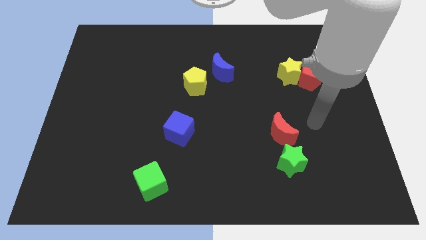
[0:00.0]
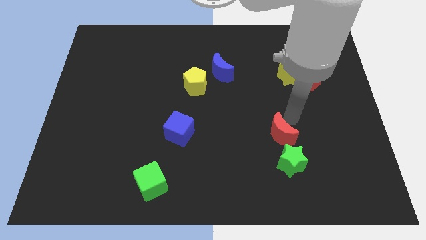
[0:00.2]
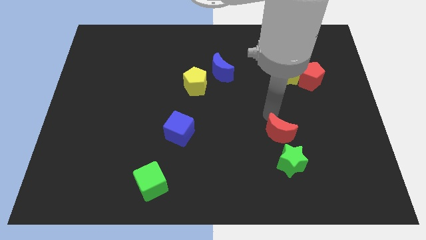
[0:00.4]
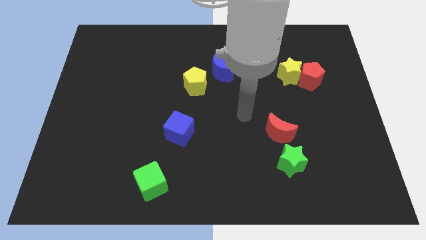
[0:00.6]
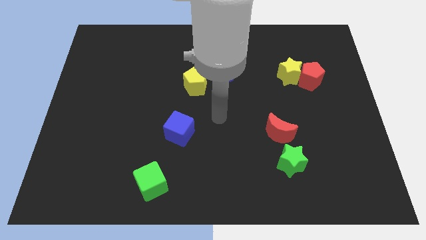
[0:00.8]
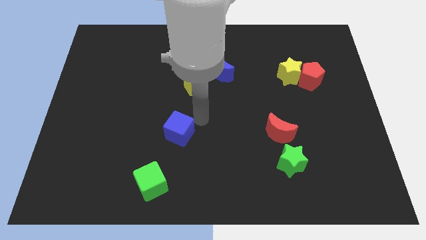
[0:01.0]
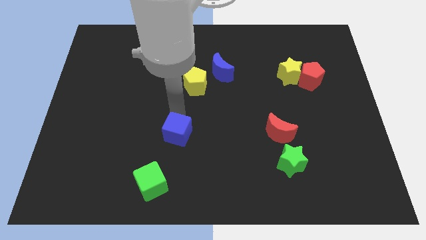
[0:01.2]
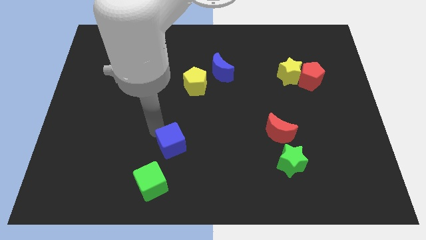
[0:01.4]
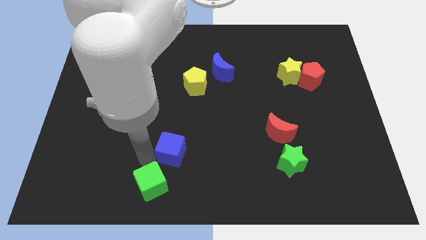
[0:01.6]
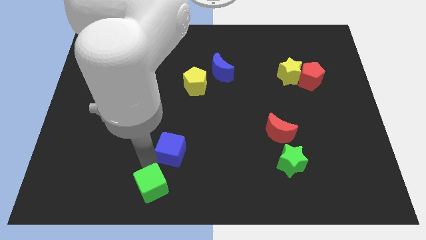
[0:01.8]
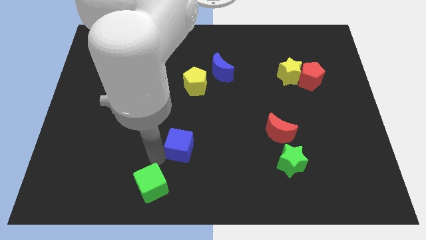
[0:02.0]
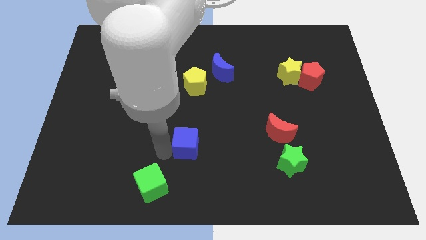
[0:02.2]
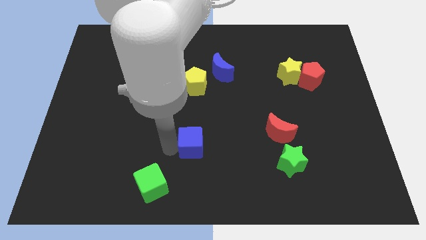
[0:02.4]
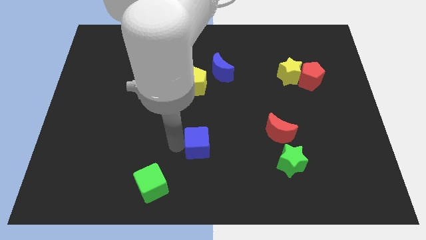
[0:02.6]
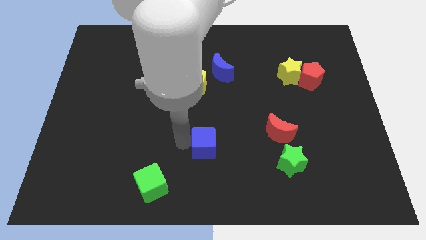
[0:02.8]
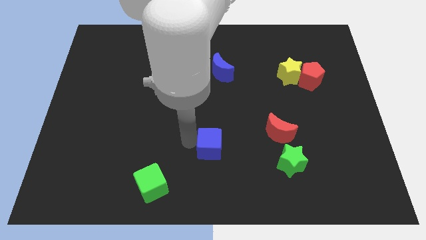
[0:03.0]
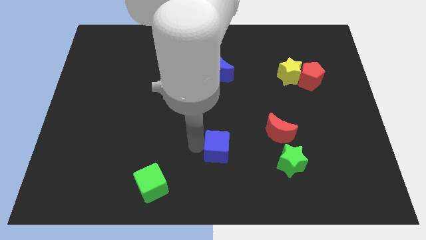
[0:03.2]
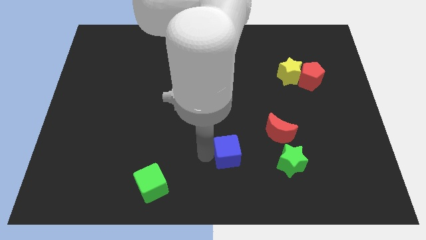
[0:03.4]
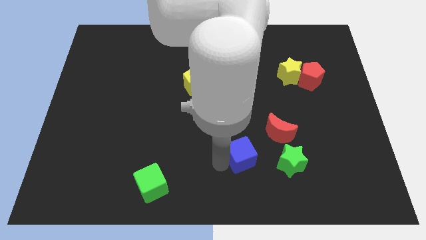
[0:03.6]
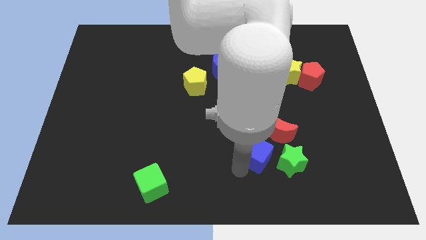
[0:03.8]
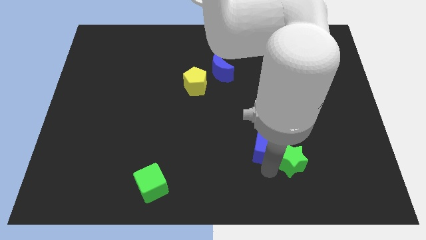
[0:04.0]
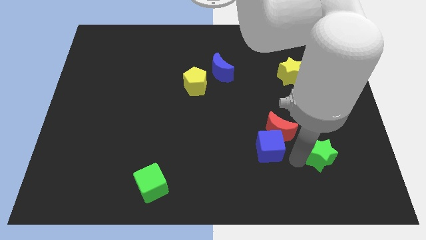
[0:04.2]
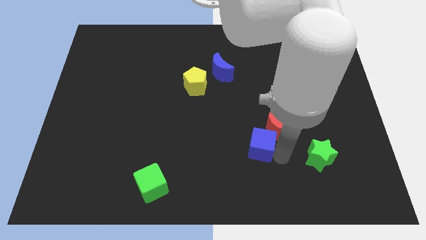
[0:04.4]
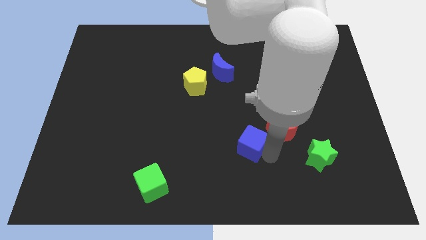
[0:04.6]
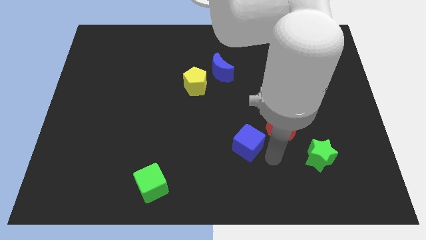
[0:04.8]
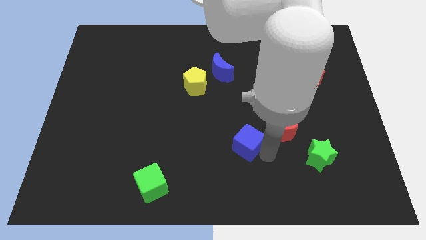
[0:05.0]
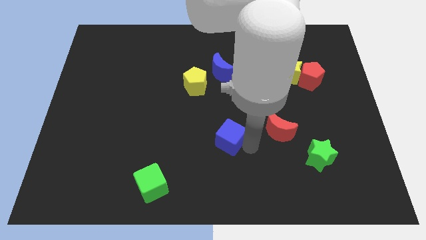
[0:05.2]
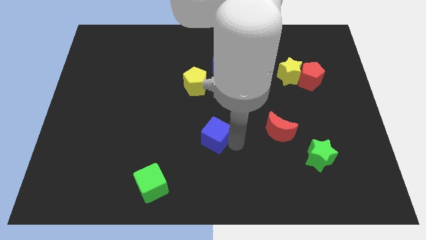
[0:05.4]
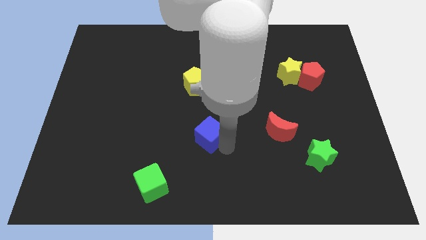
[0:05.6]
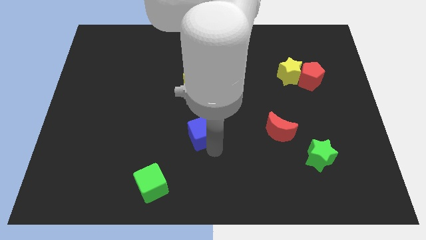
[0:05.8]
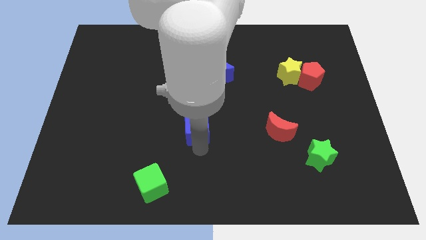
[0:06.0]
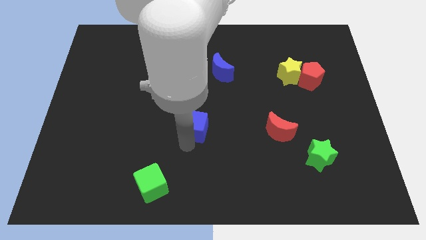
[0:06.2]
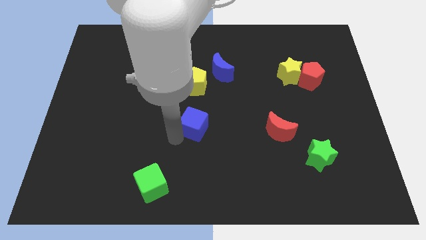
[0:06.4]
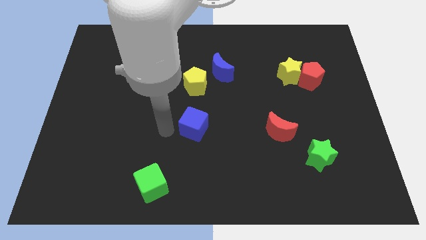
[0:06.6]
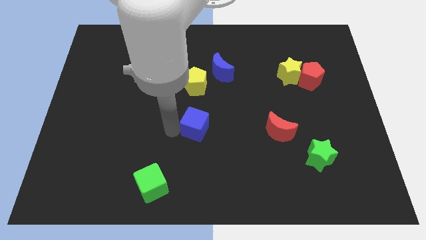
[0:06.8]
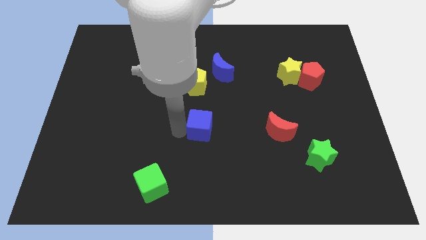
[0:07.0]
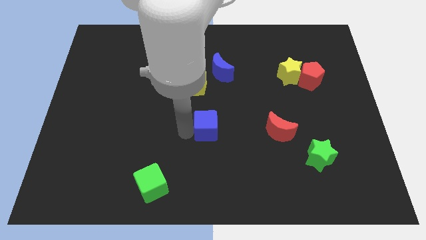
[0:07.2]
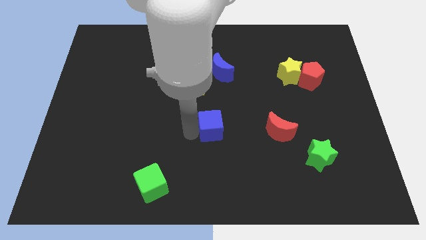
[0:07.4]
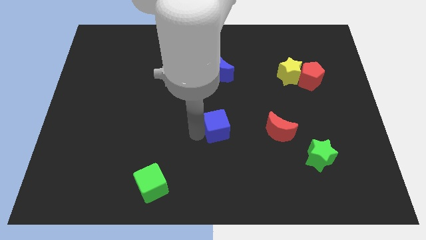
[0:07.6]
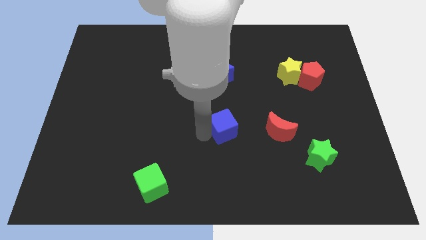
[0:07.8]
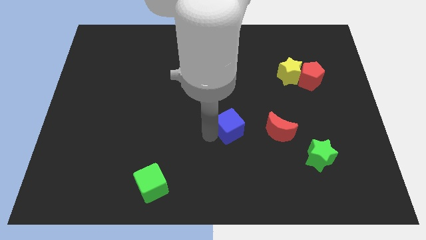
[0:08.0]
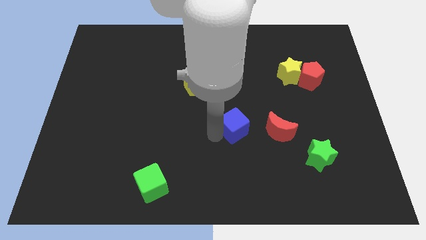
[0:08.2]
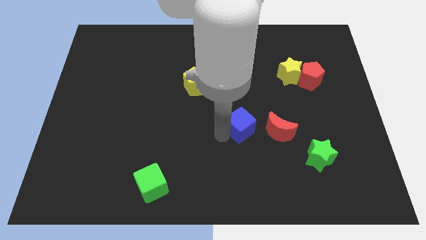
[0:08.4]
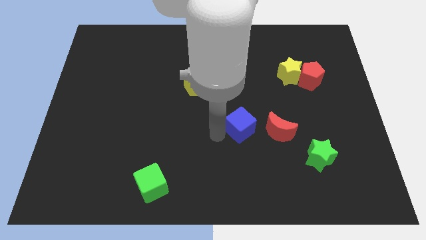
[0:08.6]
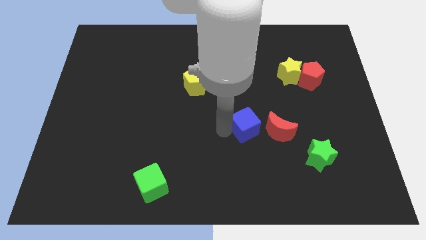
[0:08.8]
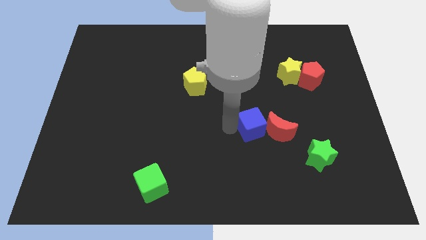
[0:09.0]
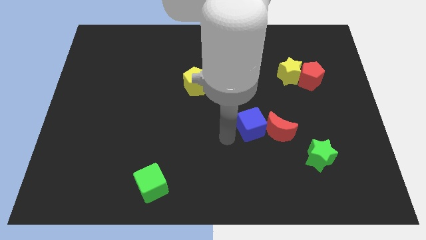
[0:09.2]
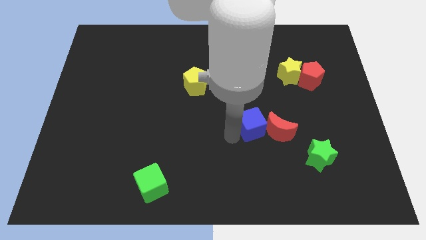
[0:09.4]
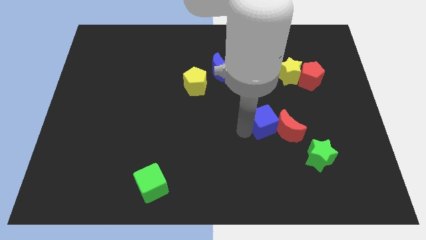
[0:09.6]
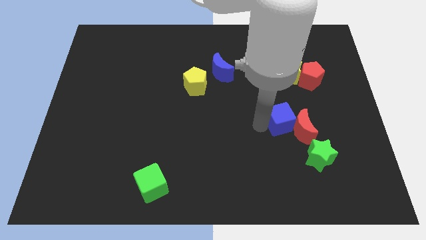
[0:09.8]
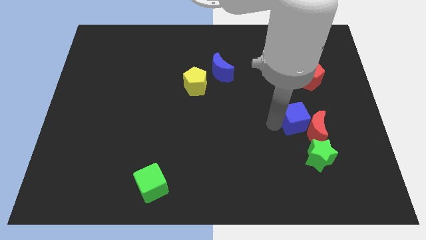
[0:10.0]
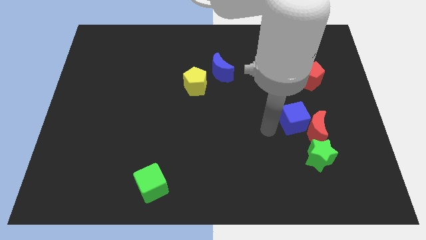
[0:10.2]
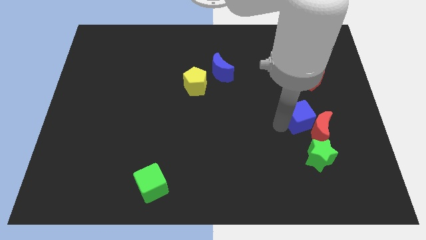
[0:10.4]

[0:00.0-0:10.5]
push the blue cube below the red pentagon

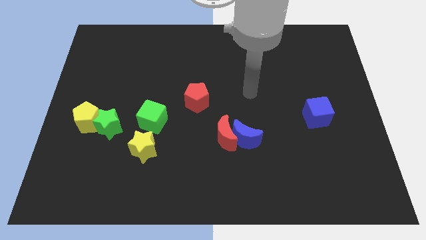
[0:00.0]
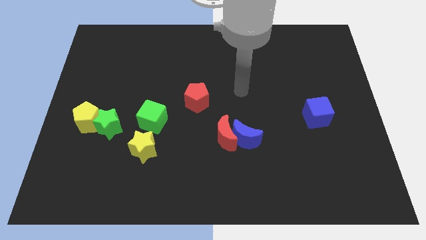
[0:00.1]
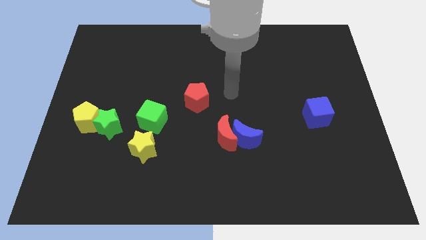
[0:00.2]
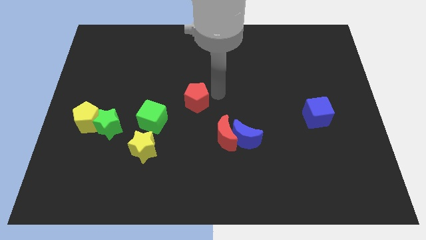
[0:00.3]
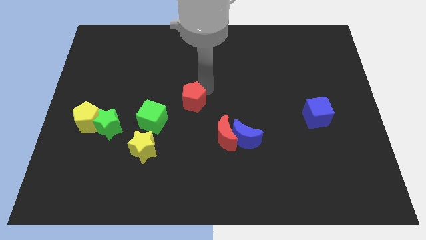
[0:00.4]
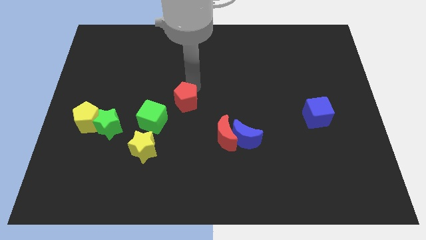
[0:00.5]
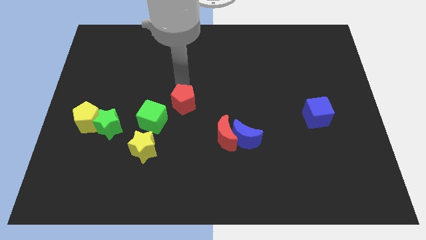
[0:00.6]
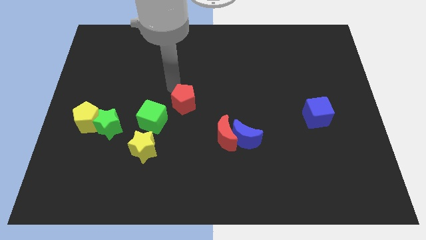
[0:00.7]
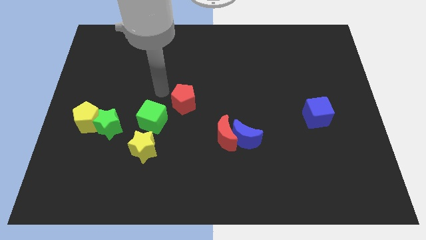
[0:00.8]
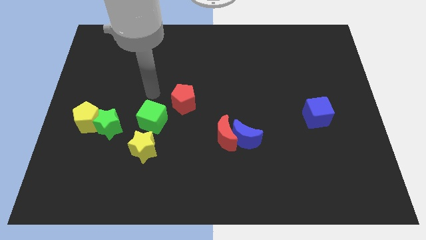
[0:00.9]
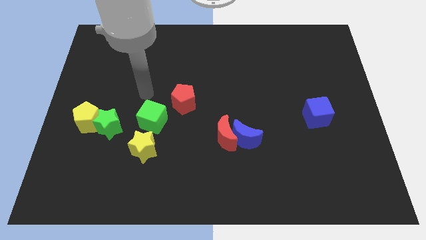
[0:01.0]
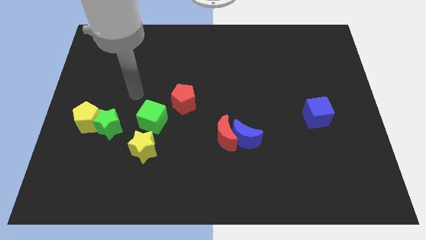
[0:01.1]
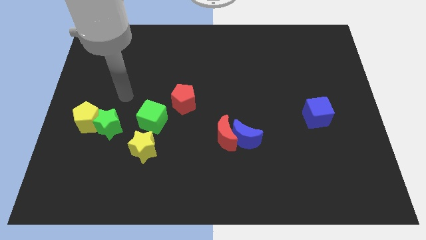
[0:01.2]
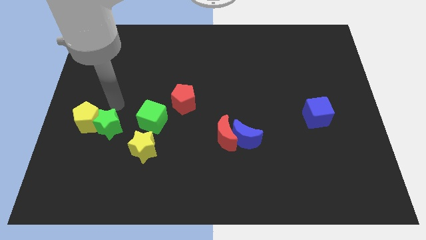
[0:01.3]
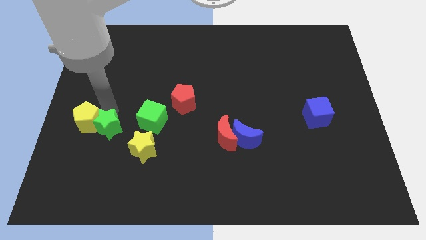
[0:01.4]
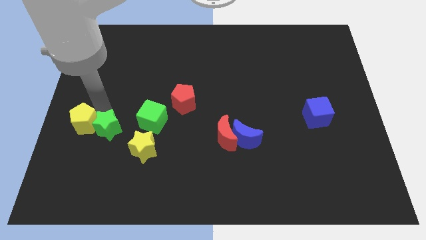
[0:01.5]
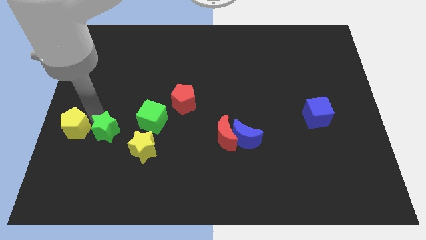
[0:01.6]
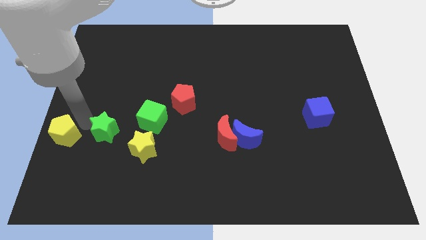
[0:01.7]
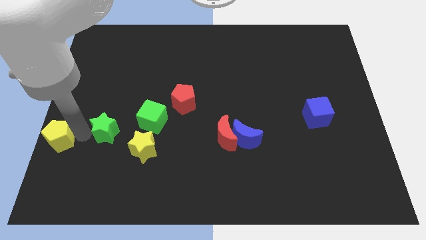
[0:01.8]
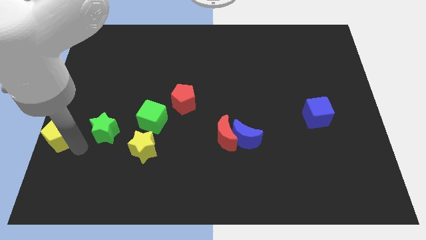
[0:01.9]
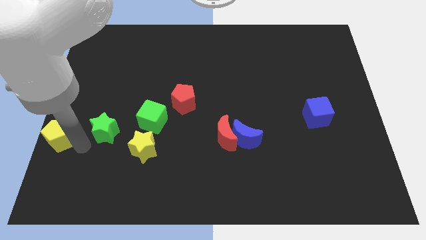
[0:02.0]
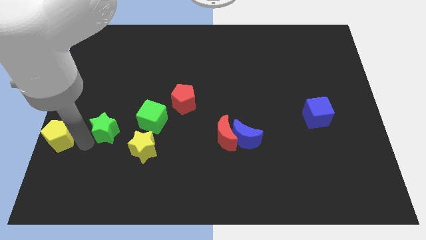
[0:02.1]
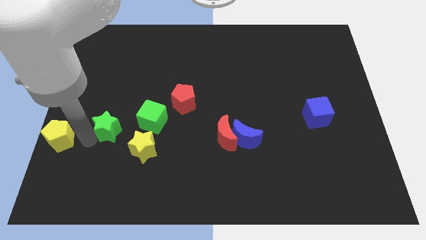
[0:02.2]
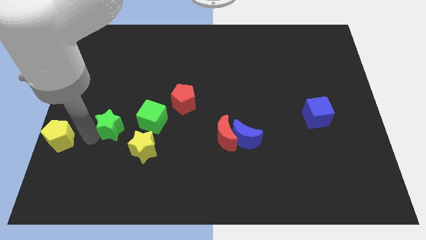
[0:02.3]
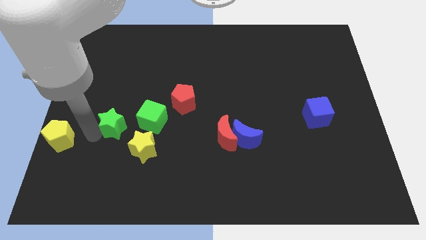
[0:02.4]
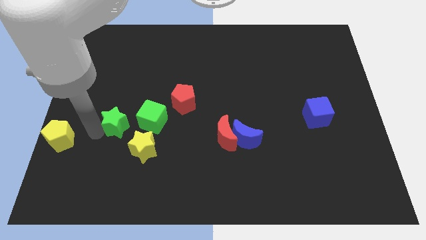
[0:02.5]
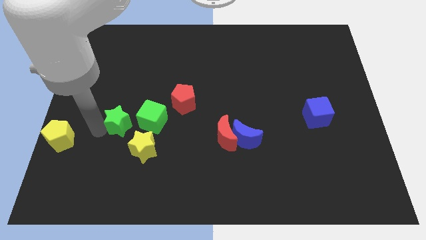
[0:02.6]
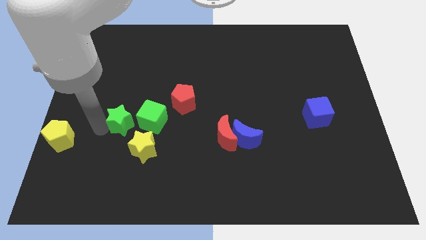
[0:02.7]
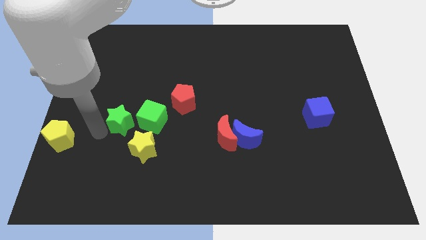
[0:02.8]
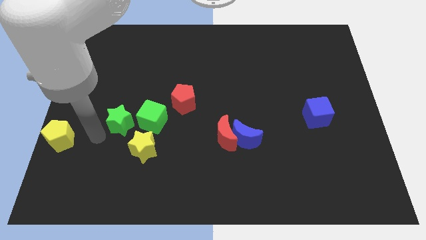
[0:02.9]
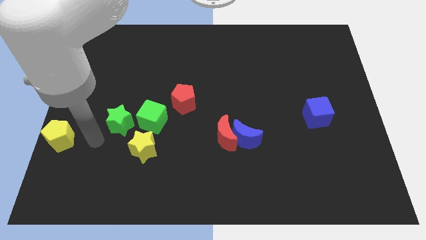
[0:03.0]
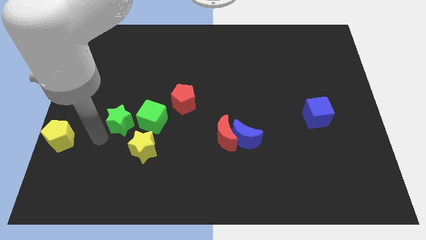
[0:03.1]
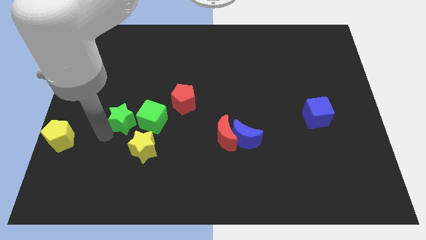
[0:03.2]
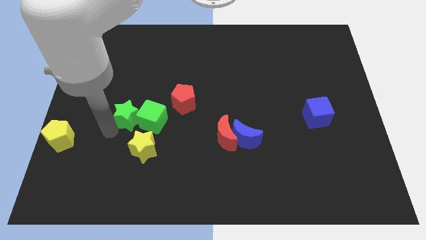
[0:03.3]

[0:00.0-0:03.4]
push the green star to the top of the yellow star
